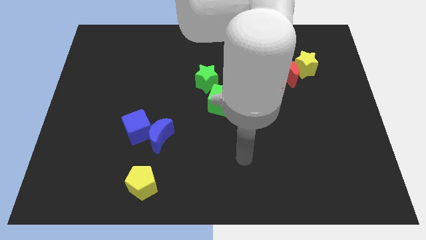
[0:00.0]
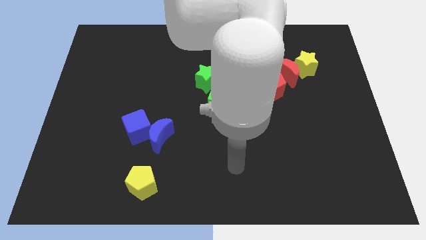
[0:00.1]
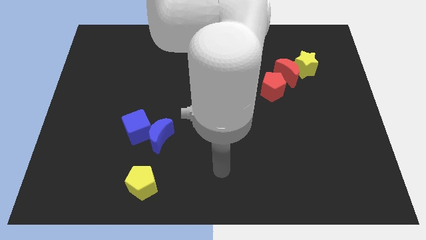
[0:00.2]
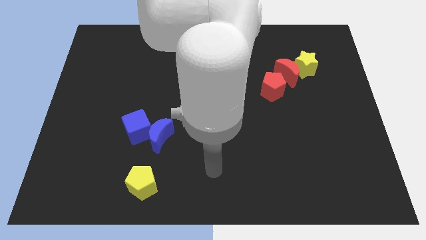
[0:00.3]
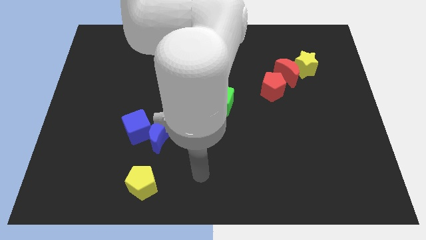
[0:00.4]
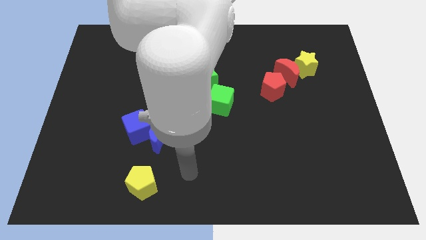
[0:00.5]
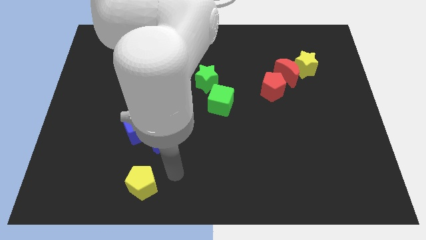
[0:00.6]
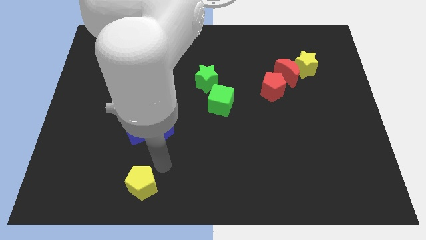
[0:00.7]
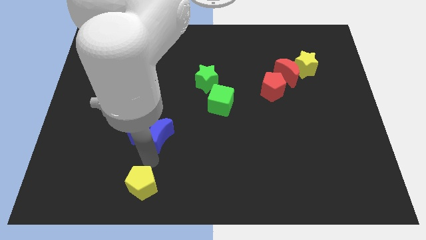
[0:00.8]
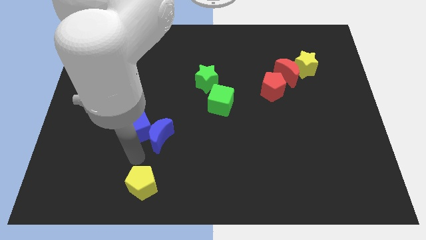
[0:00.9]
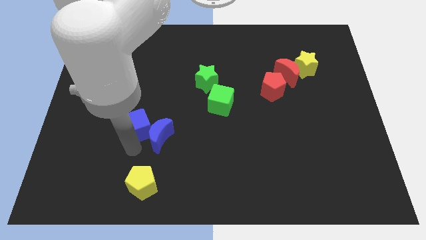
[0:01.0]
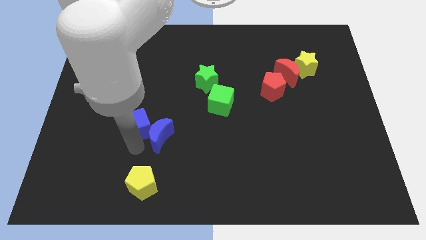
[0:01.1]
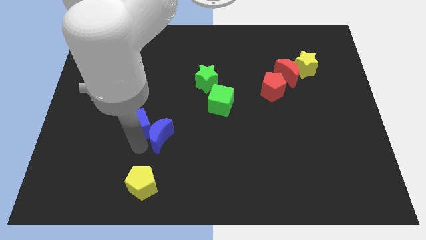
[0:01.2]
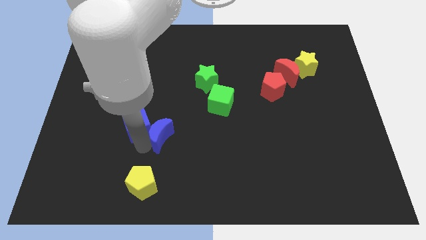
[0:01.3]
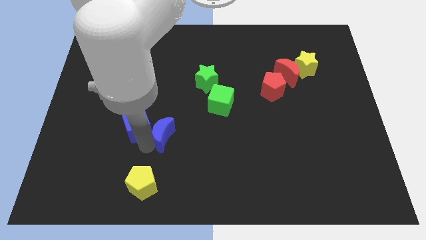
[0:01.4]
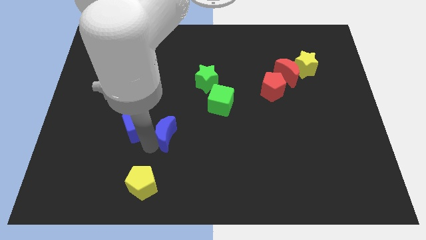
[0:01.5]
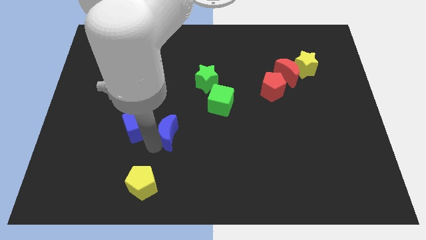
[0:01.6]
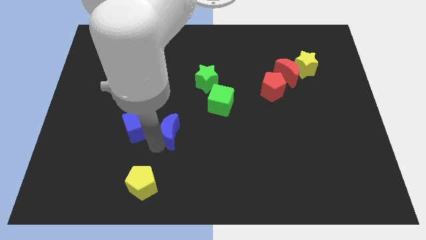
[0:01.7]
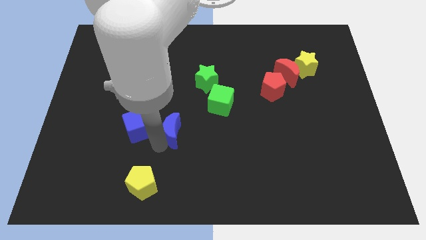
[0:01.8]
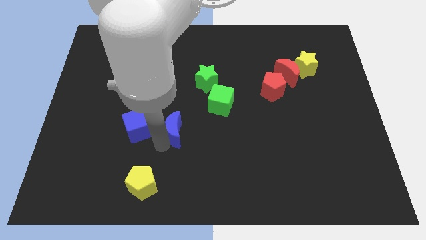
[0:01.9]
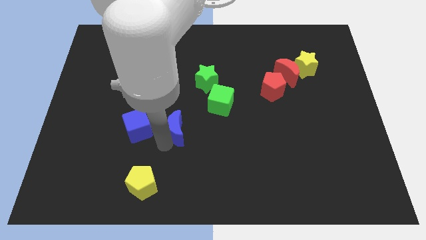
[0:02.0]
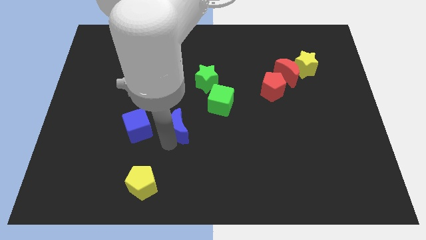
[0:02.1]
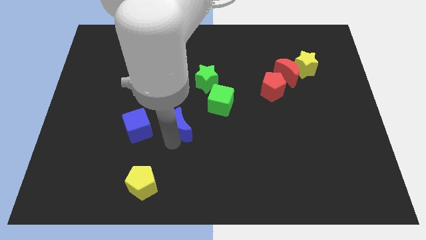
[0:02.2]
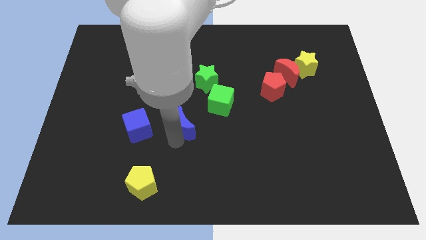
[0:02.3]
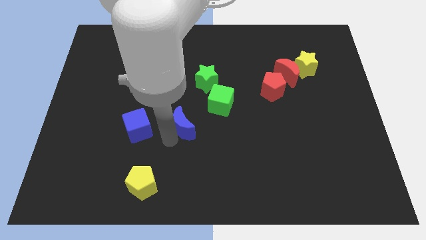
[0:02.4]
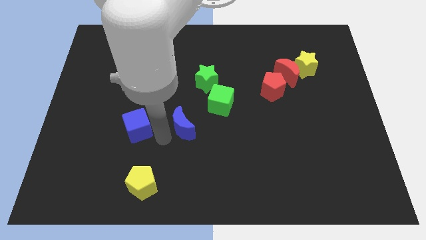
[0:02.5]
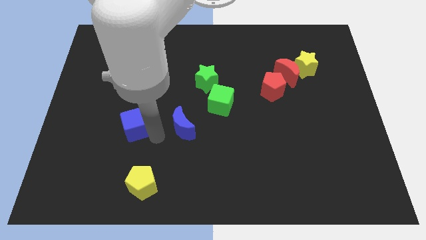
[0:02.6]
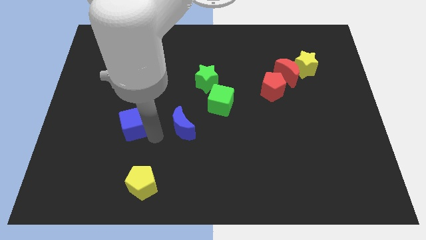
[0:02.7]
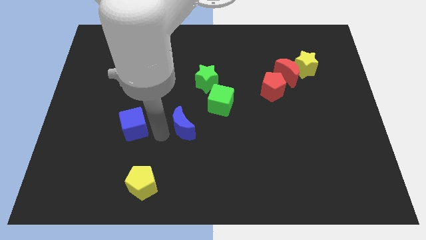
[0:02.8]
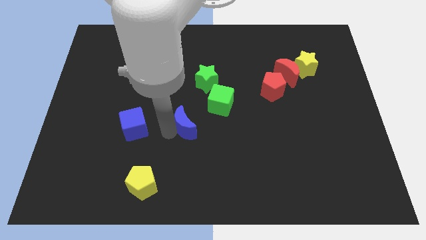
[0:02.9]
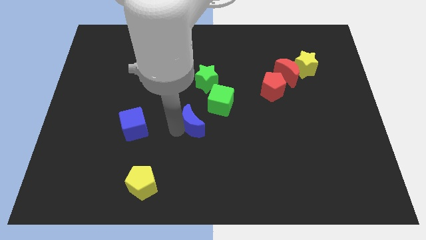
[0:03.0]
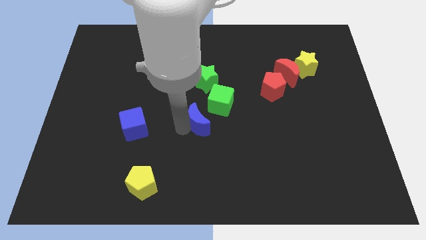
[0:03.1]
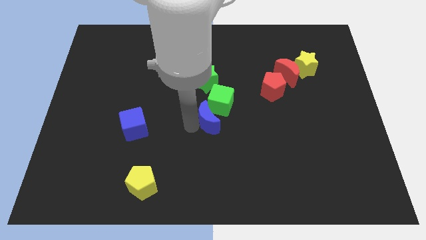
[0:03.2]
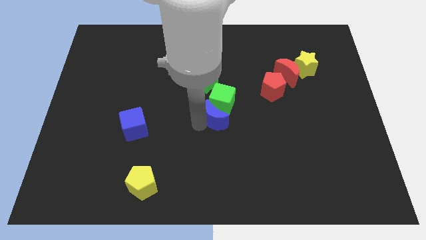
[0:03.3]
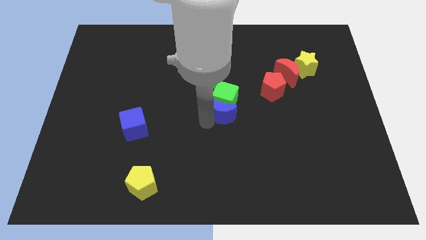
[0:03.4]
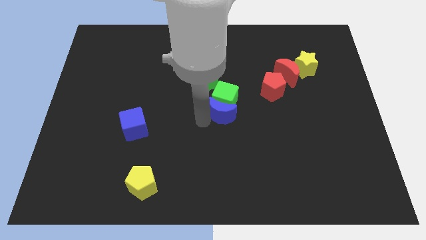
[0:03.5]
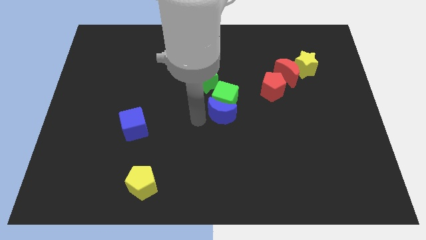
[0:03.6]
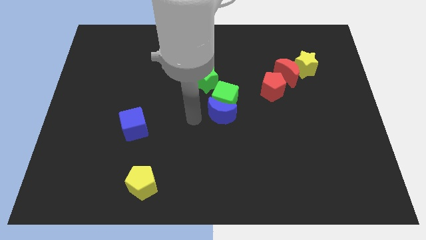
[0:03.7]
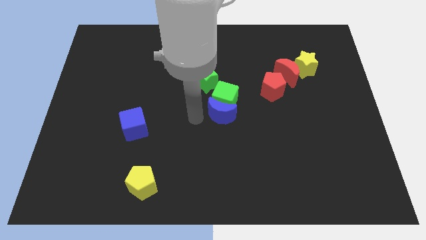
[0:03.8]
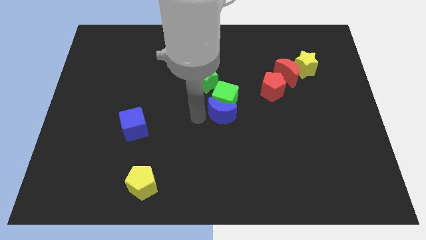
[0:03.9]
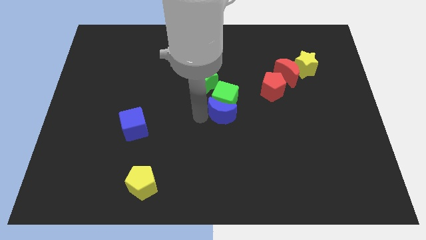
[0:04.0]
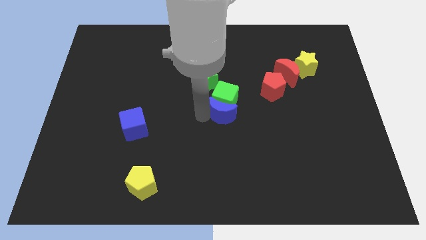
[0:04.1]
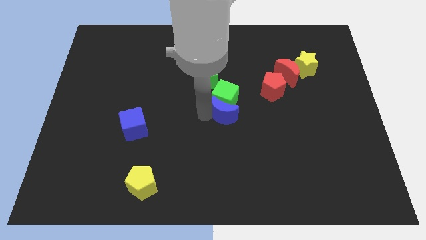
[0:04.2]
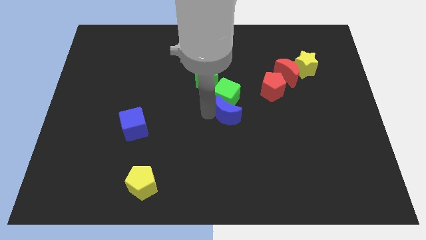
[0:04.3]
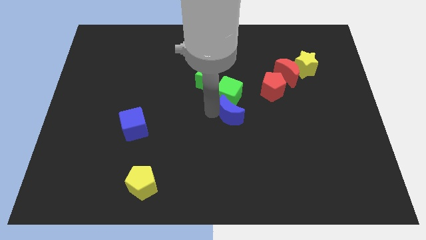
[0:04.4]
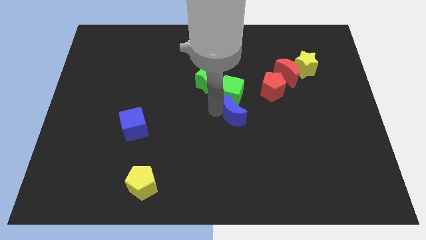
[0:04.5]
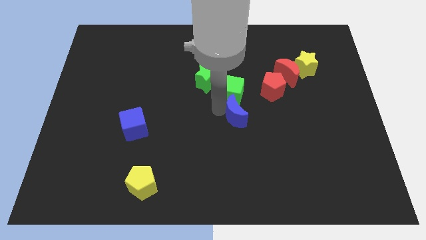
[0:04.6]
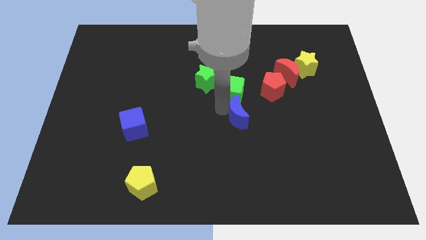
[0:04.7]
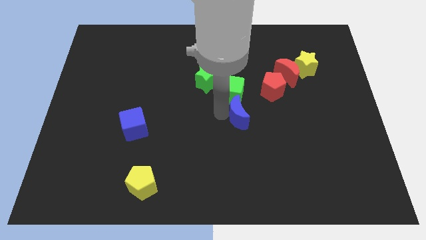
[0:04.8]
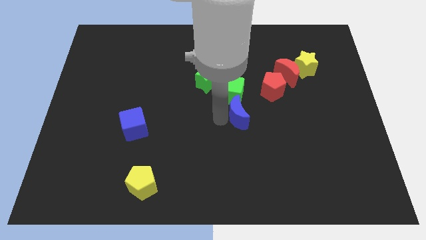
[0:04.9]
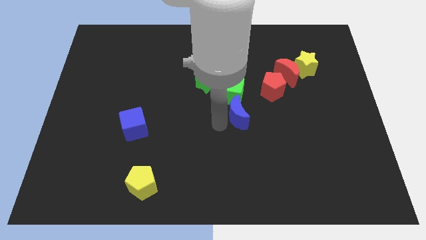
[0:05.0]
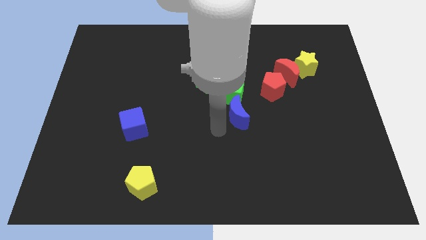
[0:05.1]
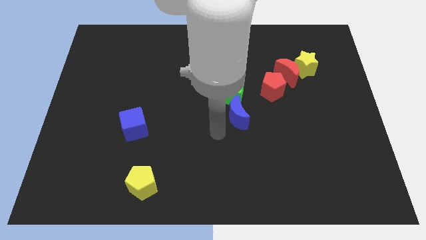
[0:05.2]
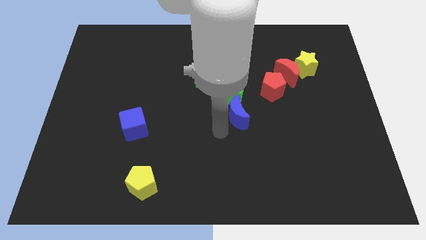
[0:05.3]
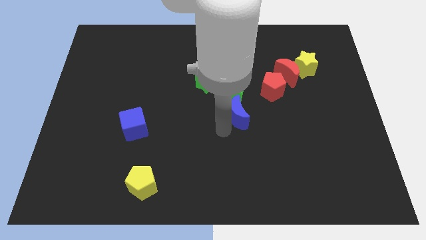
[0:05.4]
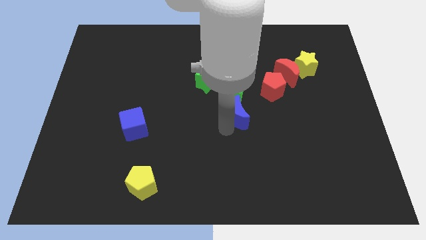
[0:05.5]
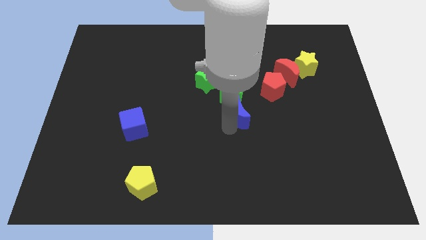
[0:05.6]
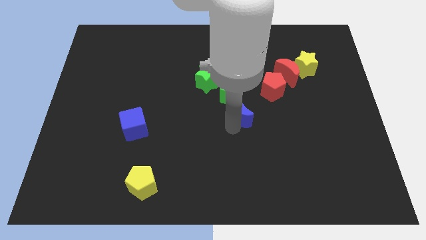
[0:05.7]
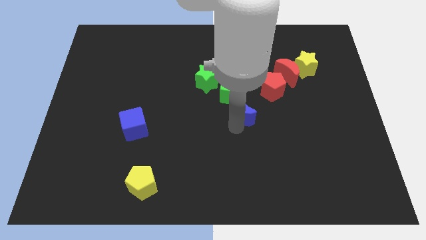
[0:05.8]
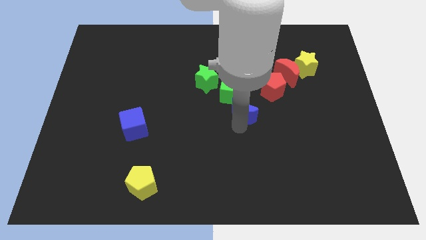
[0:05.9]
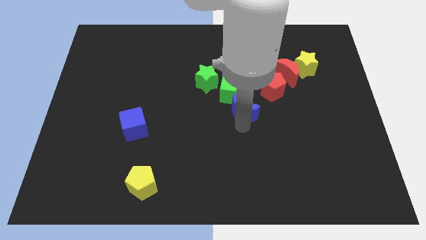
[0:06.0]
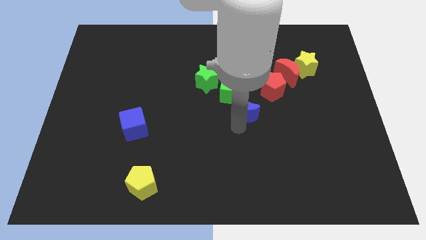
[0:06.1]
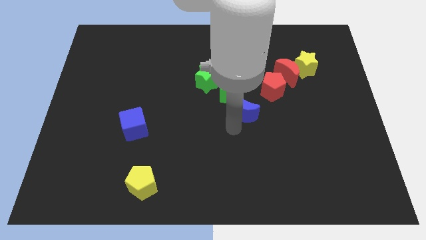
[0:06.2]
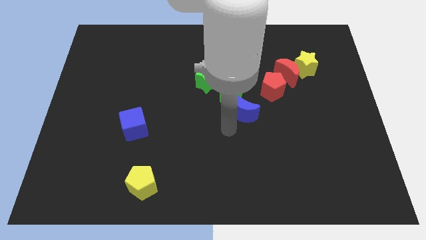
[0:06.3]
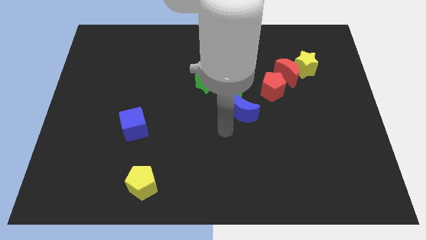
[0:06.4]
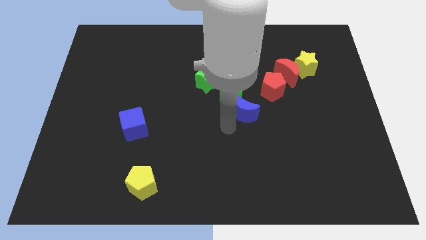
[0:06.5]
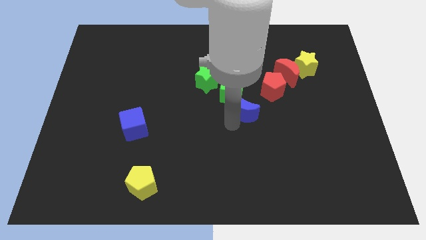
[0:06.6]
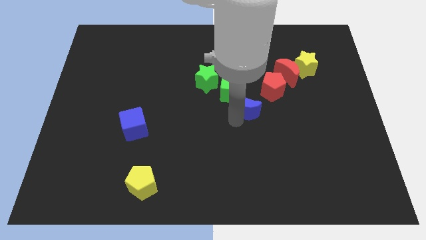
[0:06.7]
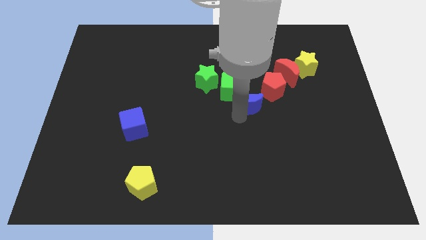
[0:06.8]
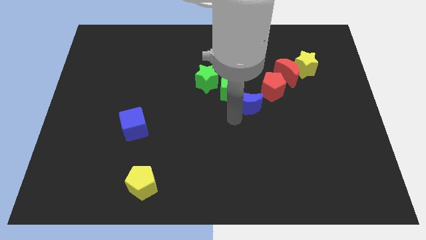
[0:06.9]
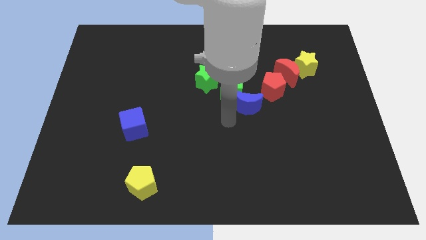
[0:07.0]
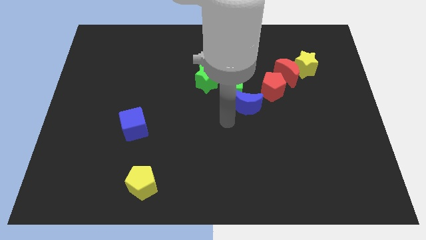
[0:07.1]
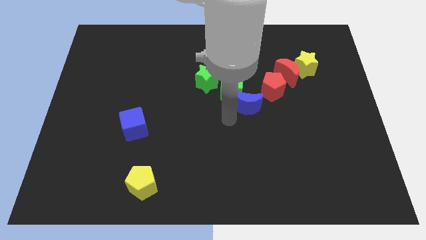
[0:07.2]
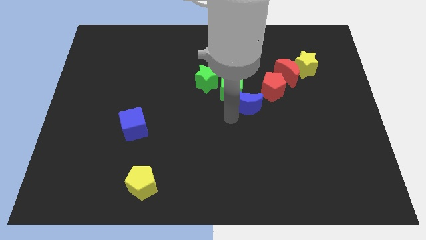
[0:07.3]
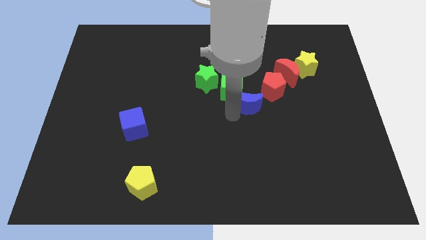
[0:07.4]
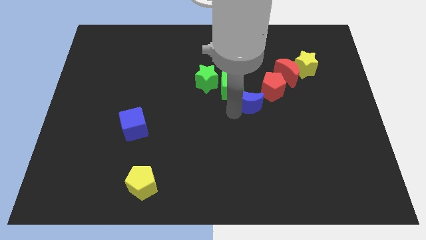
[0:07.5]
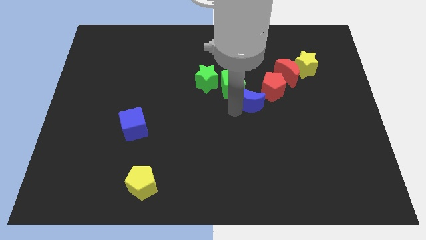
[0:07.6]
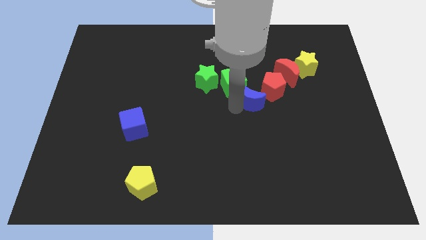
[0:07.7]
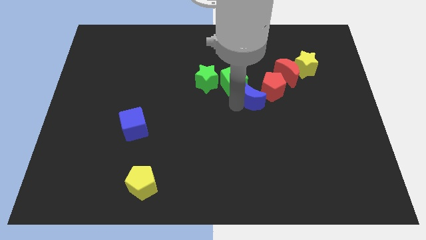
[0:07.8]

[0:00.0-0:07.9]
push the blue moon diagonally down and to the left of the red moon

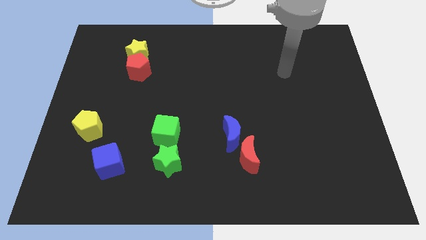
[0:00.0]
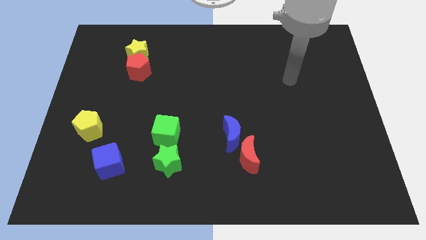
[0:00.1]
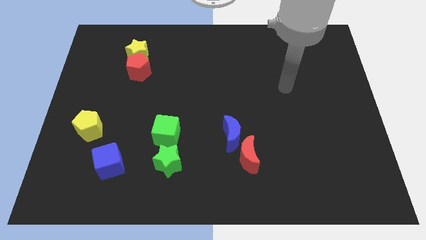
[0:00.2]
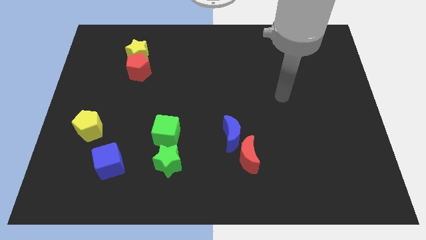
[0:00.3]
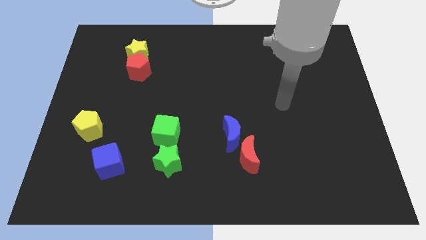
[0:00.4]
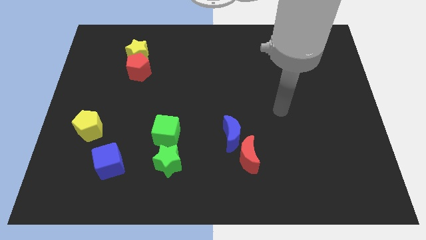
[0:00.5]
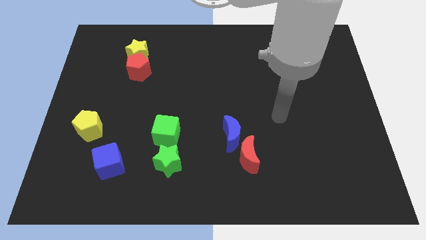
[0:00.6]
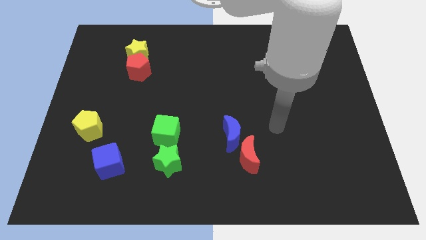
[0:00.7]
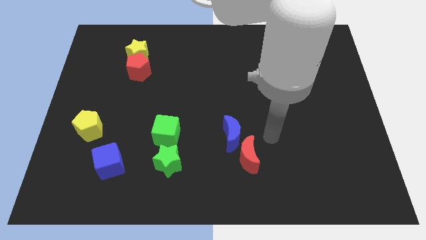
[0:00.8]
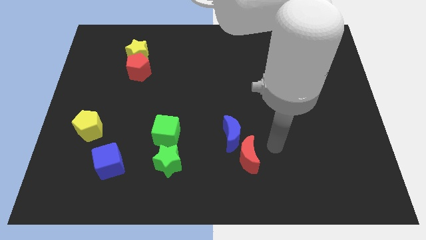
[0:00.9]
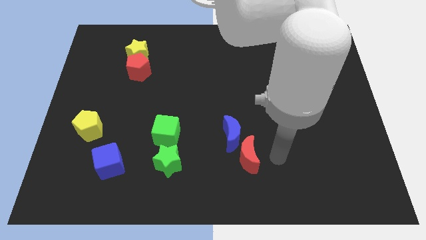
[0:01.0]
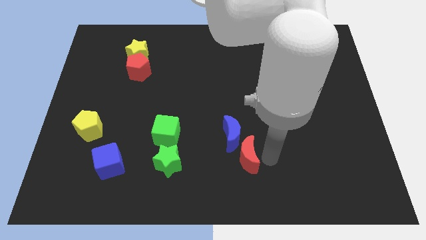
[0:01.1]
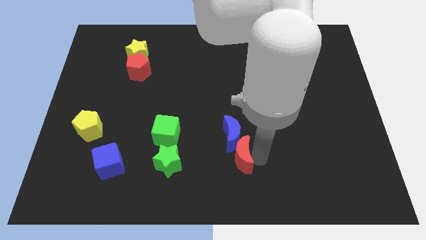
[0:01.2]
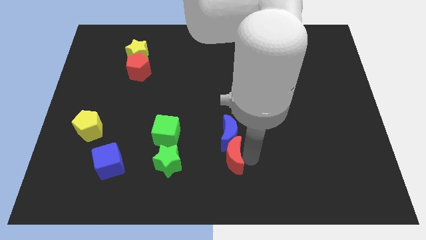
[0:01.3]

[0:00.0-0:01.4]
slide the red moon to the bottom left side of the blue moon
